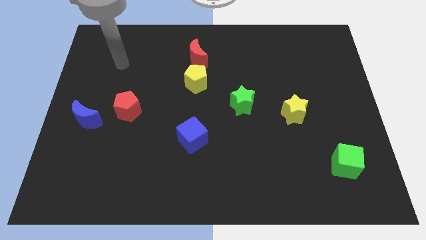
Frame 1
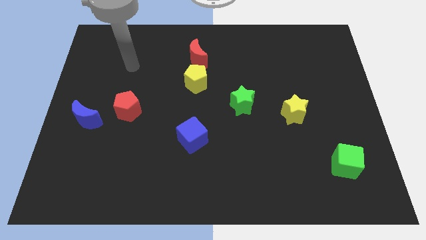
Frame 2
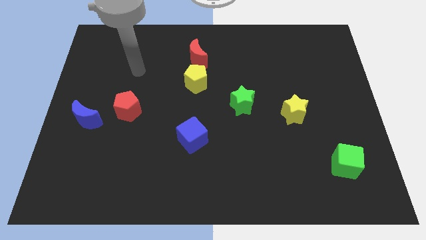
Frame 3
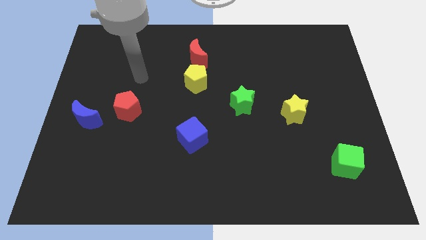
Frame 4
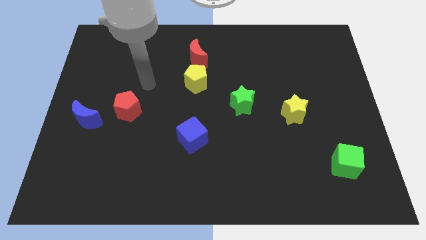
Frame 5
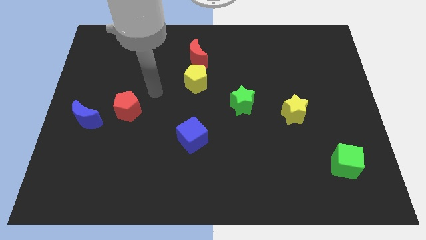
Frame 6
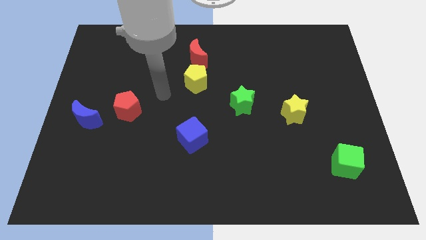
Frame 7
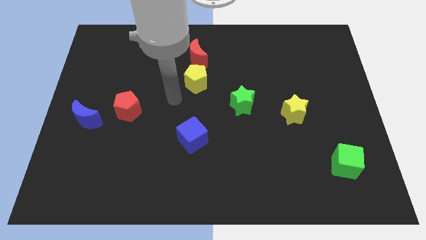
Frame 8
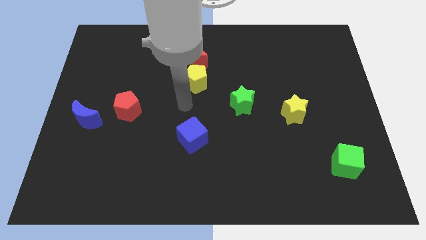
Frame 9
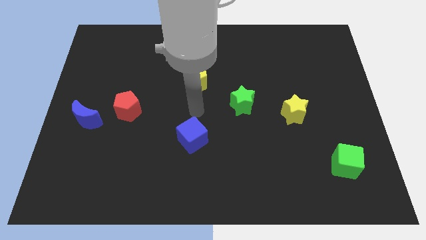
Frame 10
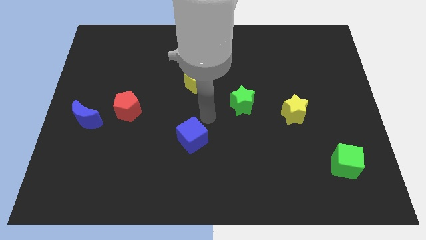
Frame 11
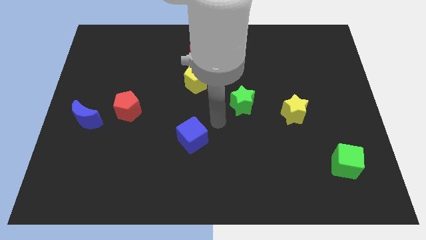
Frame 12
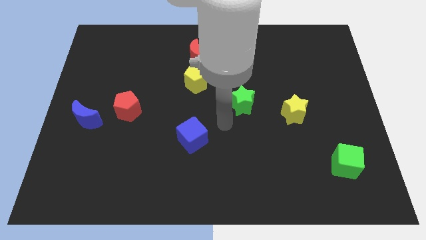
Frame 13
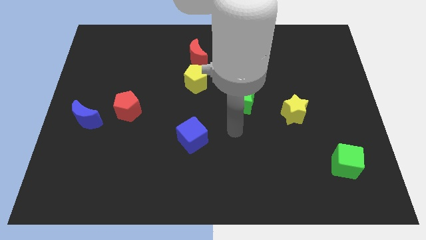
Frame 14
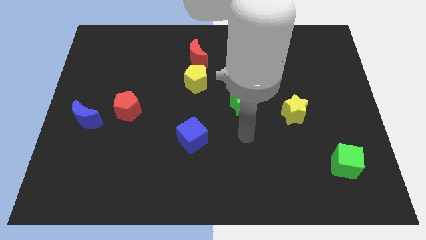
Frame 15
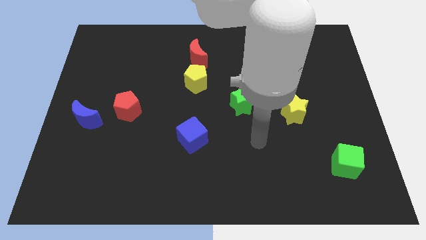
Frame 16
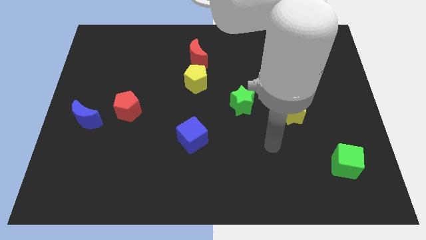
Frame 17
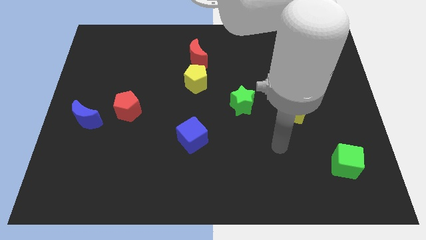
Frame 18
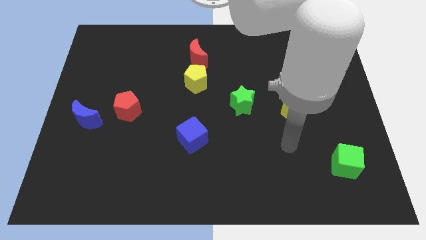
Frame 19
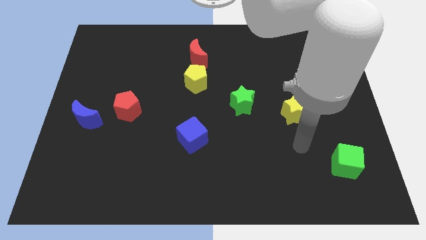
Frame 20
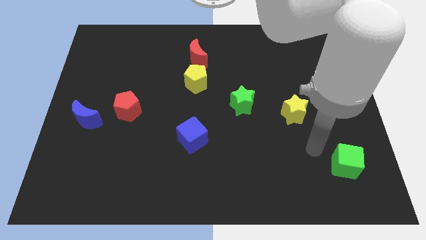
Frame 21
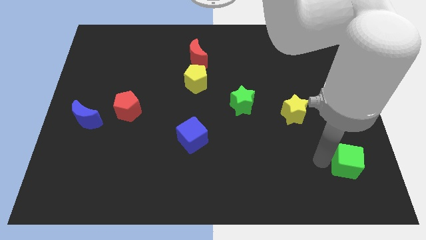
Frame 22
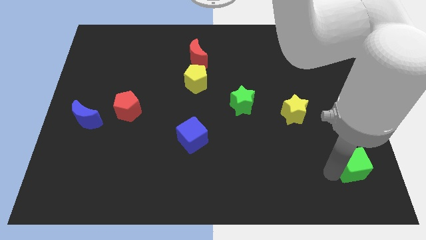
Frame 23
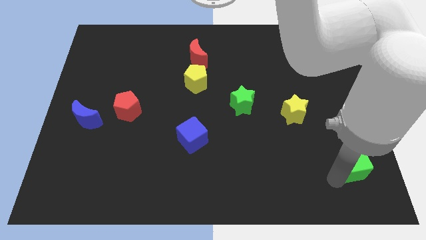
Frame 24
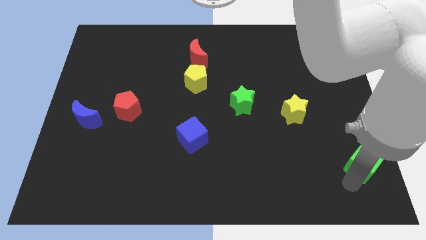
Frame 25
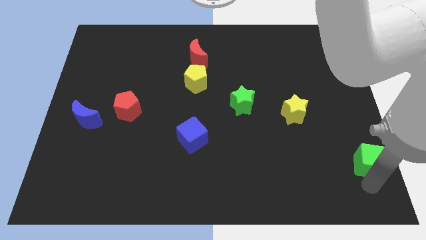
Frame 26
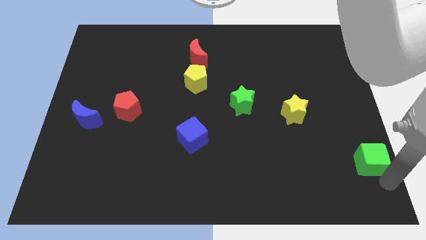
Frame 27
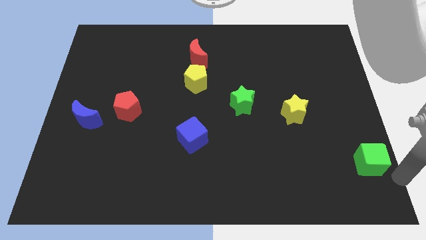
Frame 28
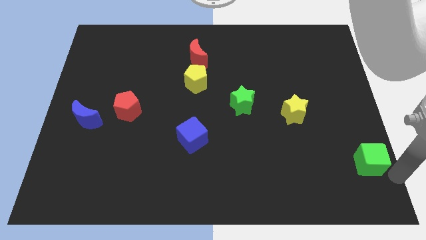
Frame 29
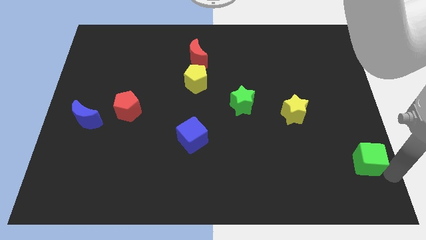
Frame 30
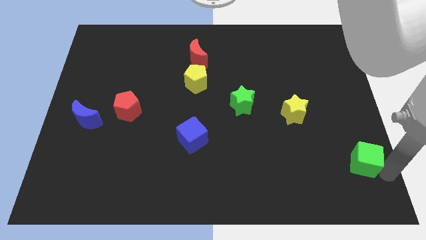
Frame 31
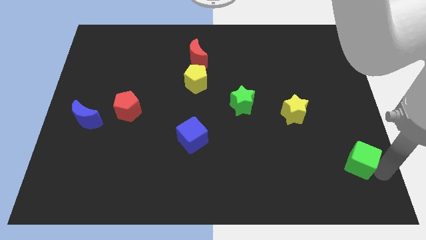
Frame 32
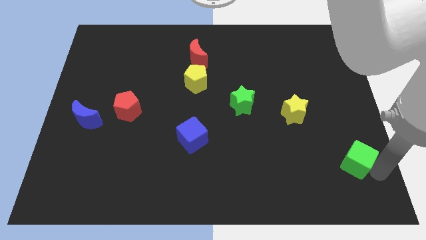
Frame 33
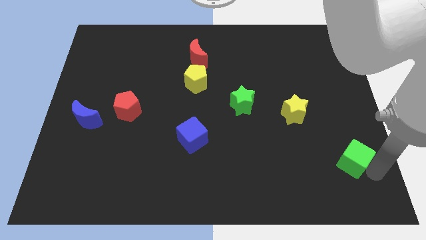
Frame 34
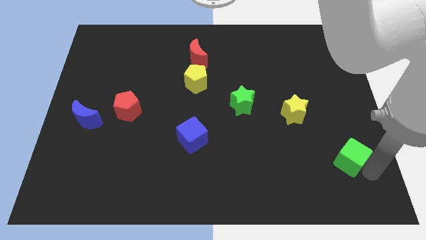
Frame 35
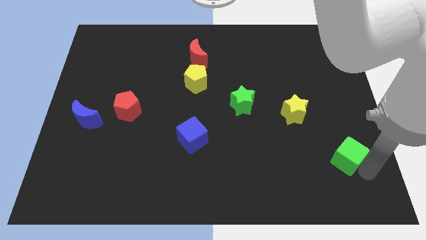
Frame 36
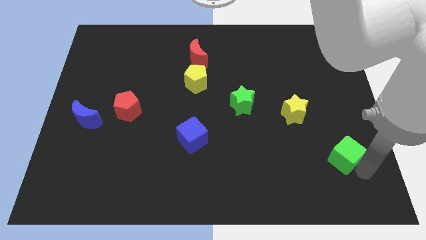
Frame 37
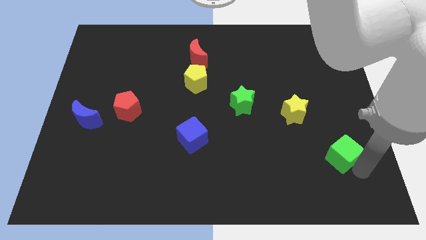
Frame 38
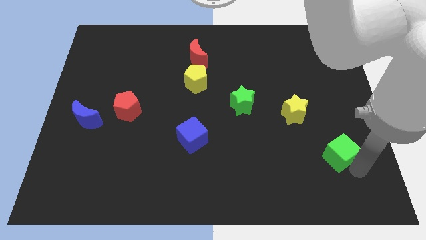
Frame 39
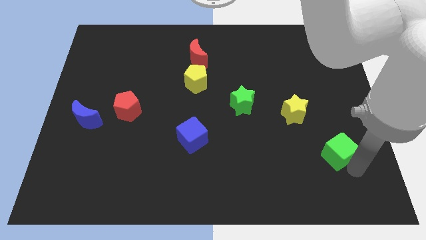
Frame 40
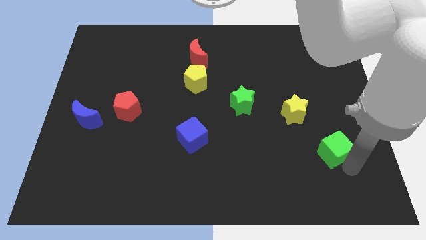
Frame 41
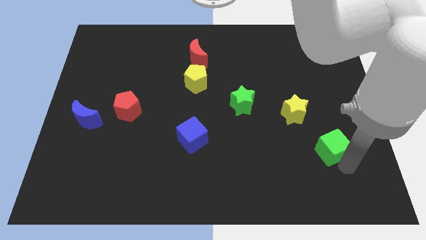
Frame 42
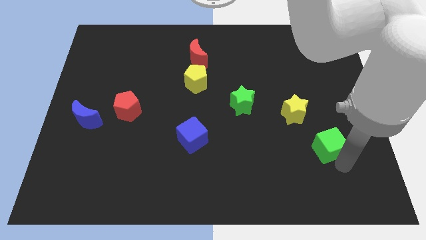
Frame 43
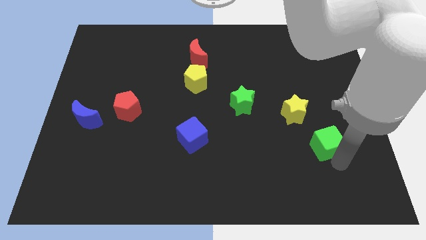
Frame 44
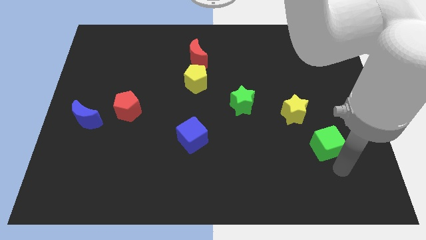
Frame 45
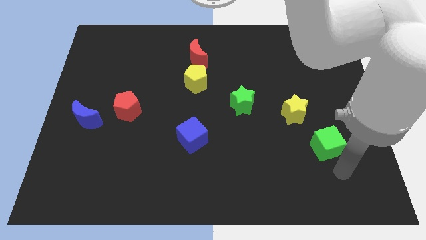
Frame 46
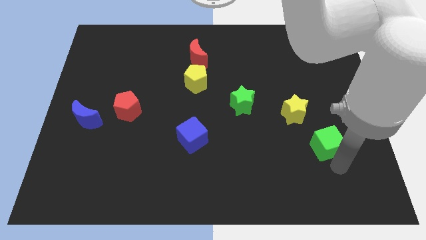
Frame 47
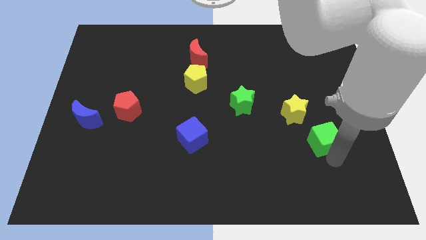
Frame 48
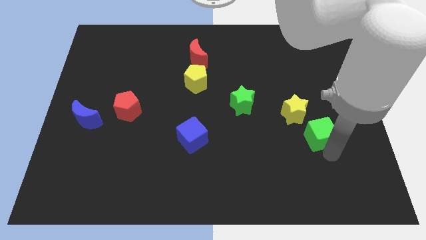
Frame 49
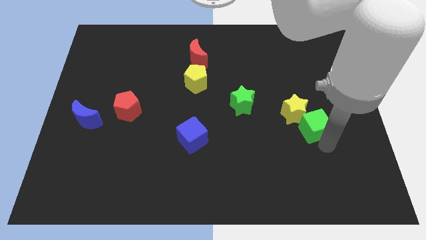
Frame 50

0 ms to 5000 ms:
slide the green cube towards the yellow star

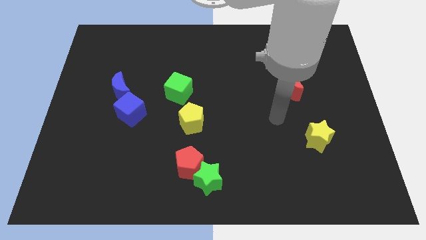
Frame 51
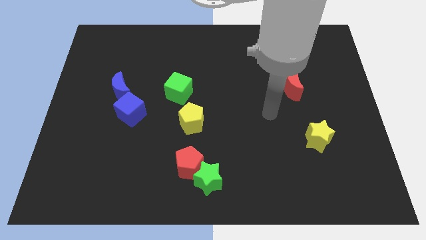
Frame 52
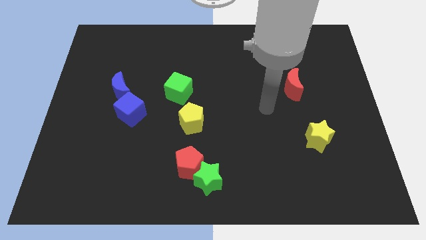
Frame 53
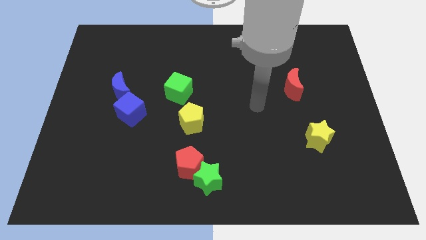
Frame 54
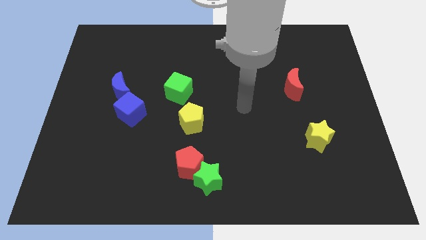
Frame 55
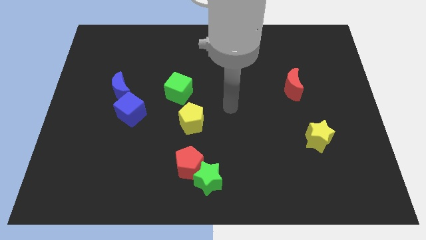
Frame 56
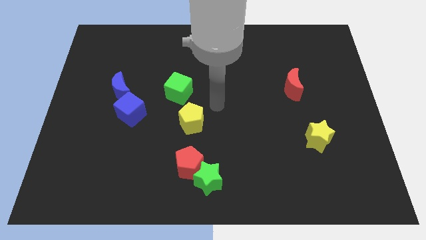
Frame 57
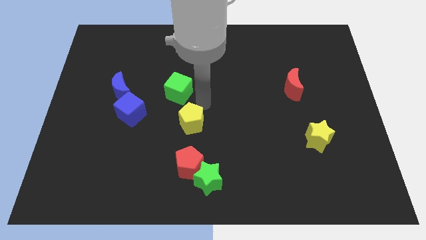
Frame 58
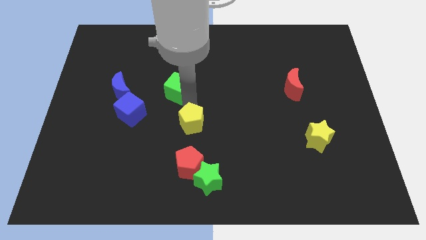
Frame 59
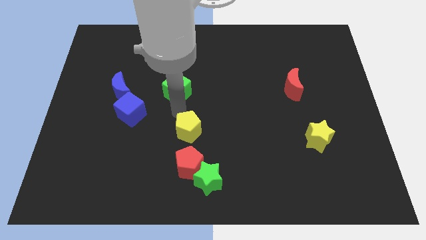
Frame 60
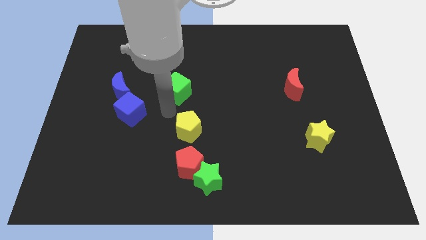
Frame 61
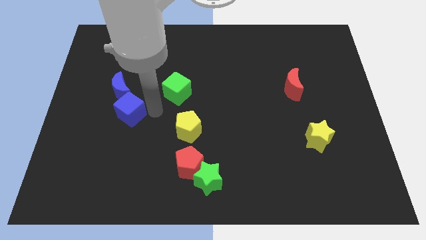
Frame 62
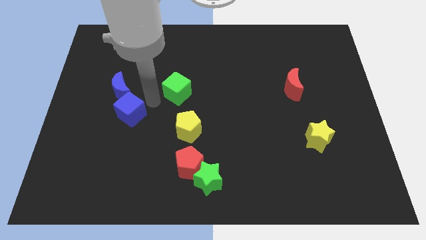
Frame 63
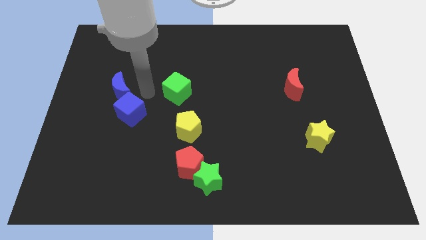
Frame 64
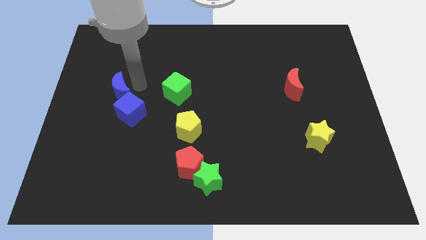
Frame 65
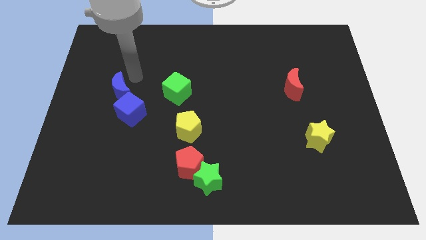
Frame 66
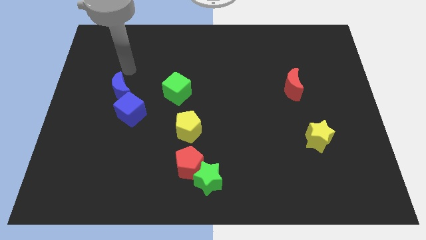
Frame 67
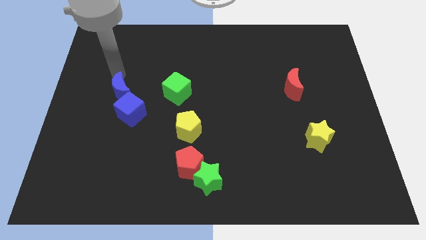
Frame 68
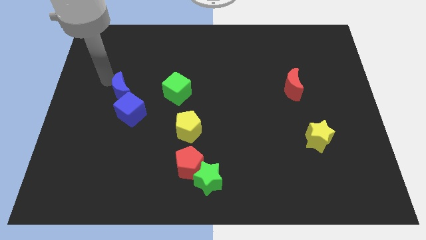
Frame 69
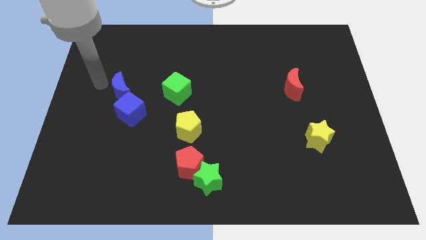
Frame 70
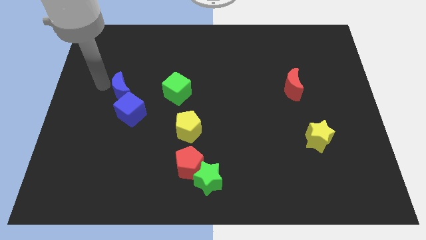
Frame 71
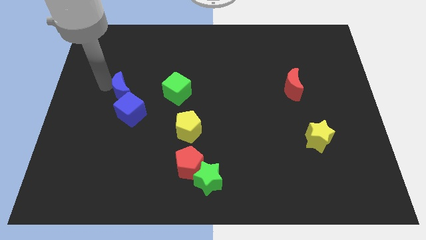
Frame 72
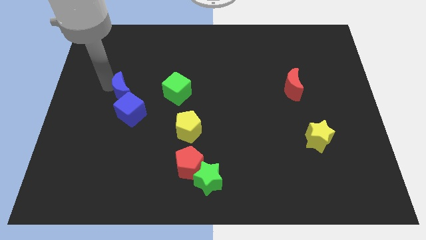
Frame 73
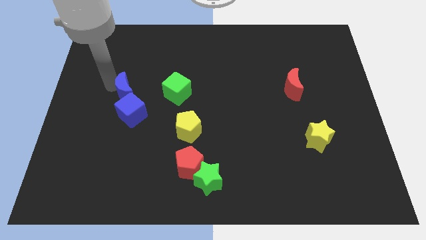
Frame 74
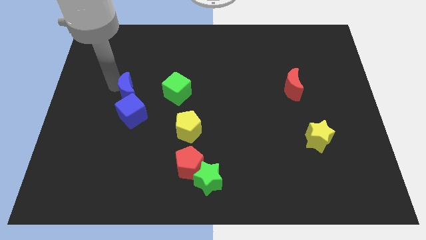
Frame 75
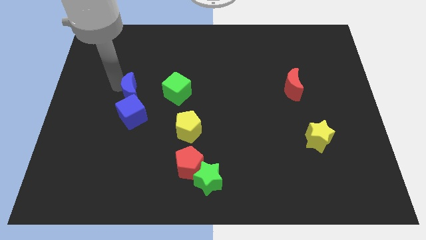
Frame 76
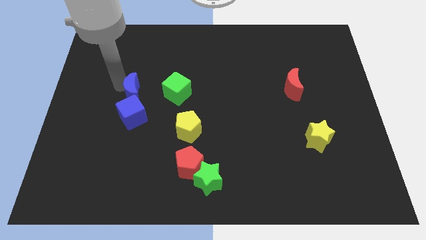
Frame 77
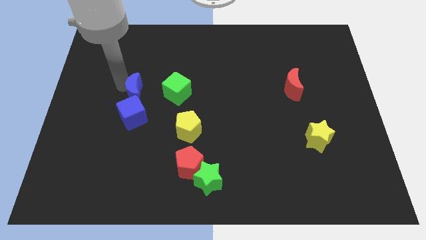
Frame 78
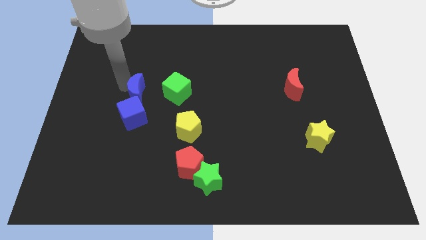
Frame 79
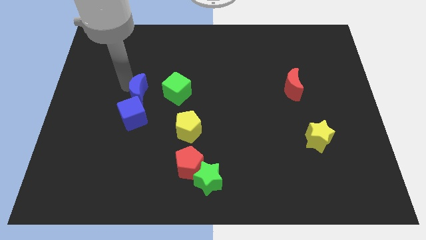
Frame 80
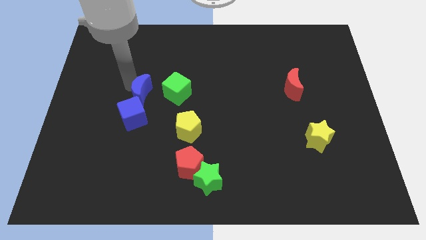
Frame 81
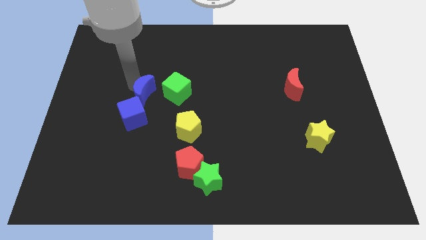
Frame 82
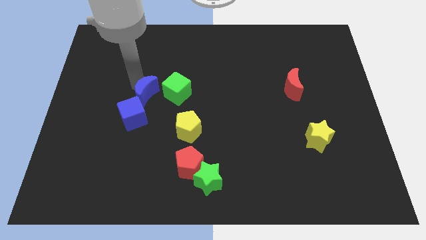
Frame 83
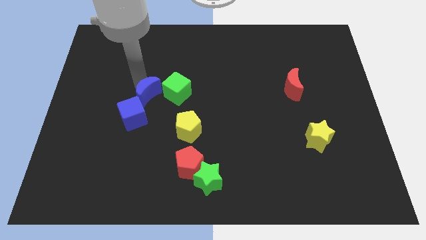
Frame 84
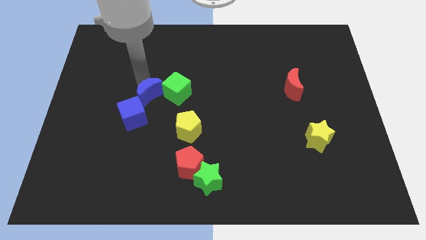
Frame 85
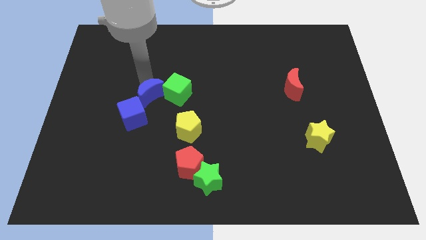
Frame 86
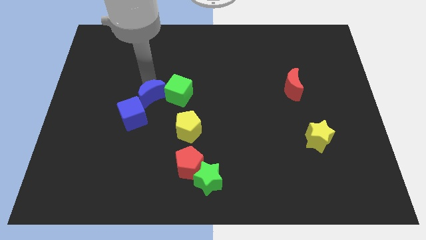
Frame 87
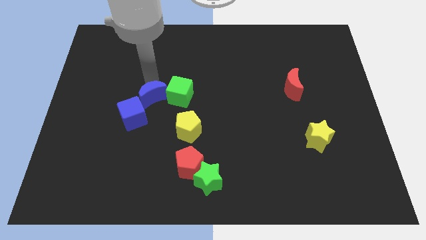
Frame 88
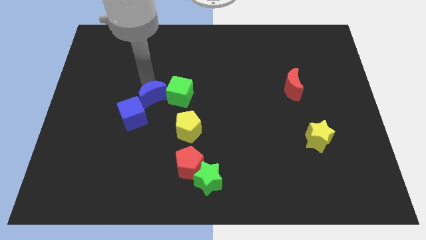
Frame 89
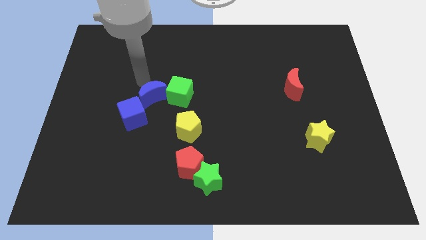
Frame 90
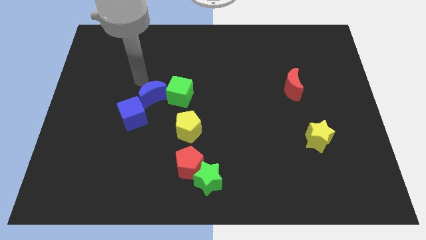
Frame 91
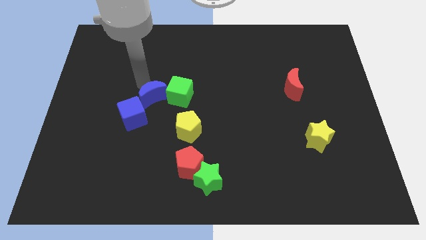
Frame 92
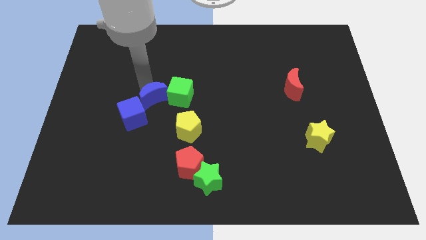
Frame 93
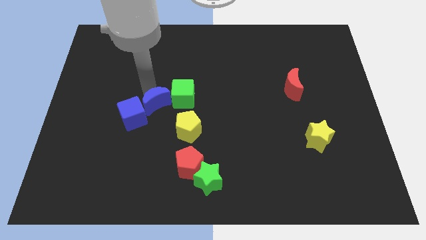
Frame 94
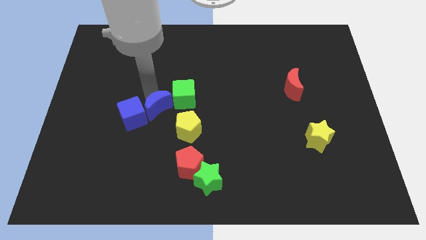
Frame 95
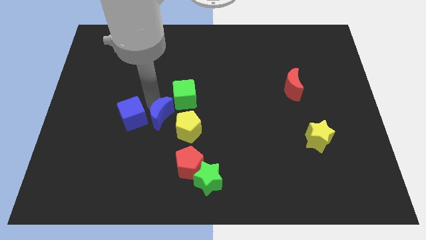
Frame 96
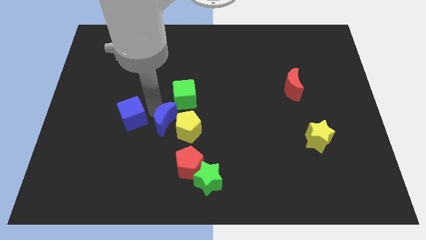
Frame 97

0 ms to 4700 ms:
push the blue moon next to the yellow pentagon
